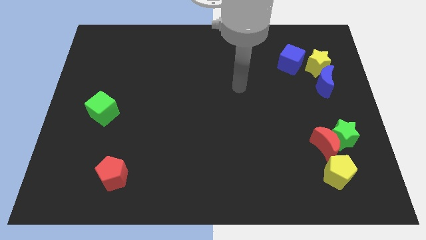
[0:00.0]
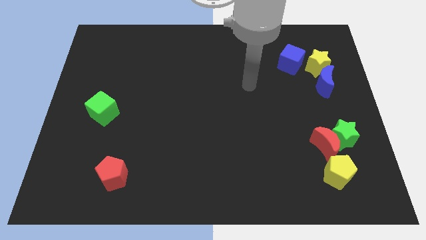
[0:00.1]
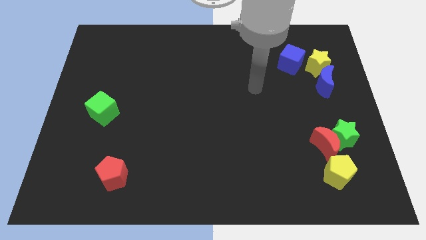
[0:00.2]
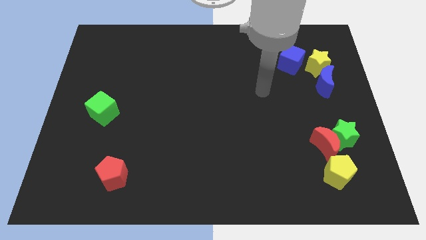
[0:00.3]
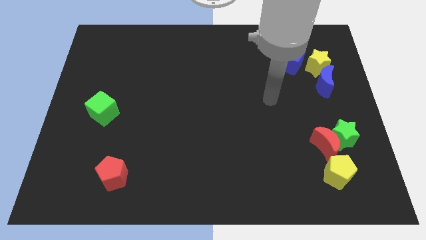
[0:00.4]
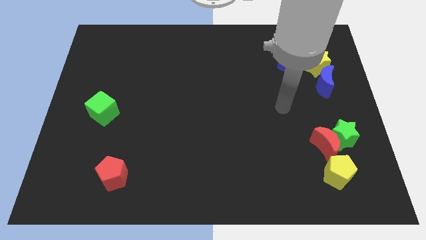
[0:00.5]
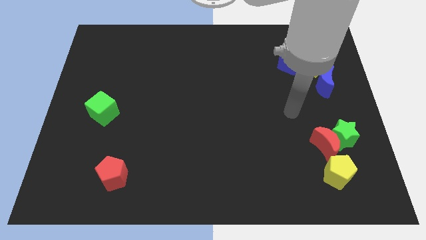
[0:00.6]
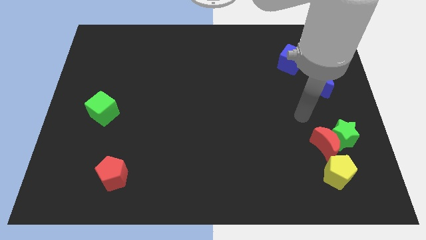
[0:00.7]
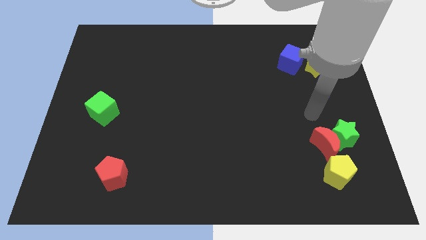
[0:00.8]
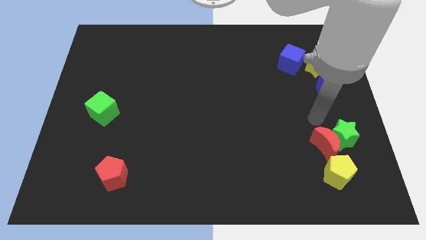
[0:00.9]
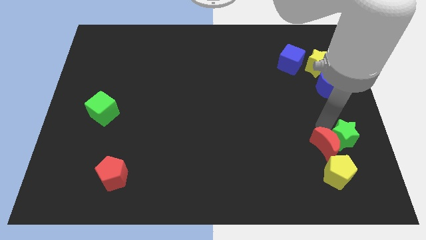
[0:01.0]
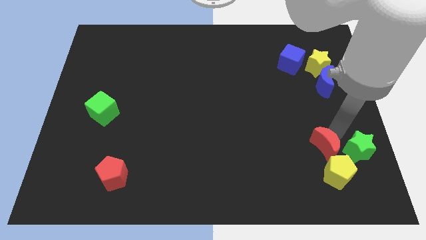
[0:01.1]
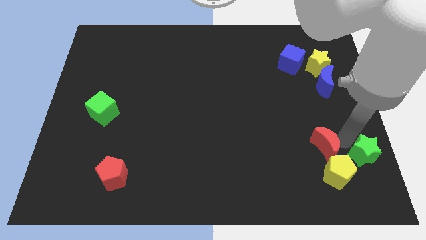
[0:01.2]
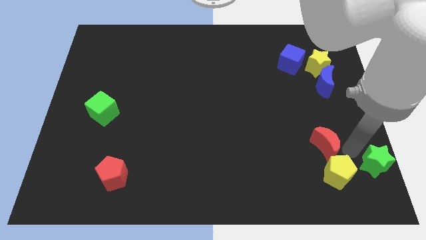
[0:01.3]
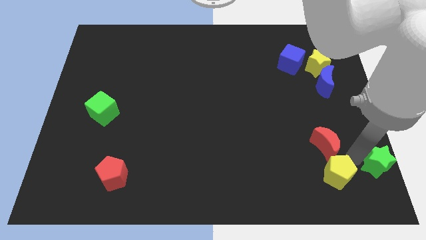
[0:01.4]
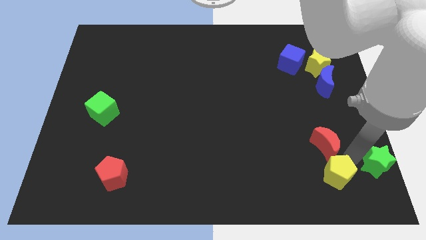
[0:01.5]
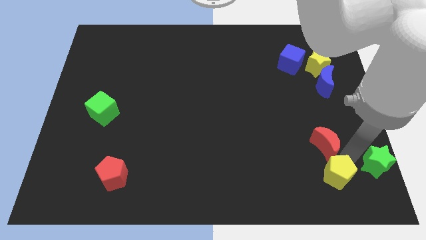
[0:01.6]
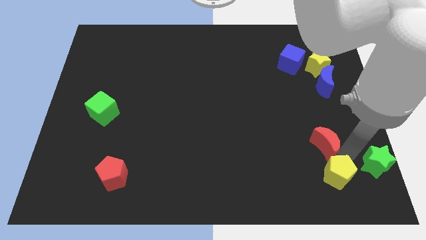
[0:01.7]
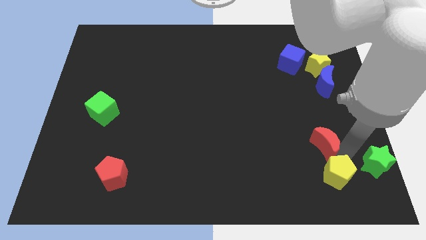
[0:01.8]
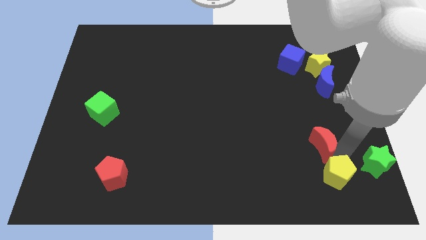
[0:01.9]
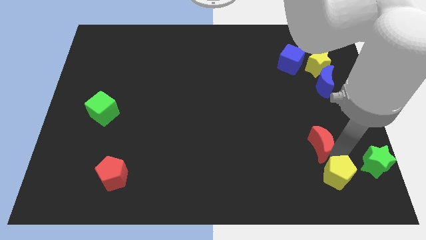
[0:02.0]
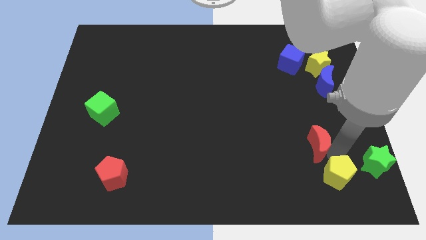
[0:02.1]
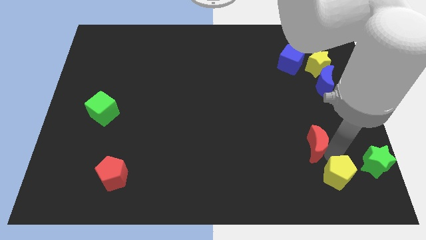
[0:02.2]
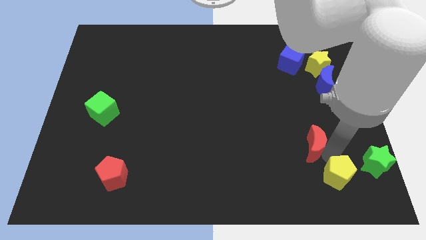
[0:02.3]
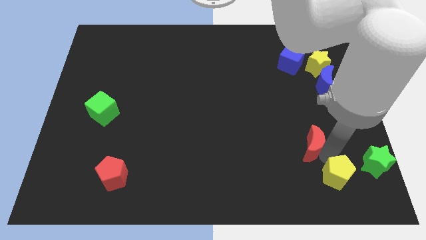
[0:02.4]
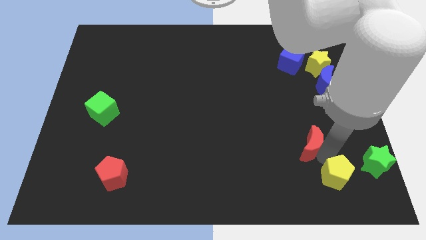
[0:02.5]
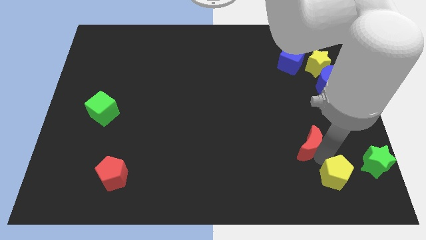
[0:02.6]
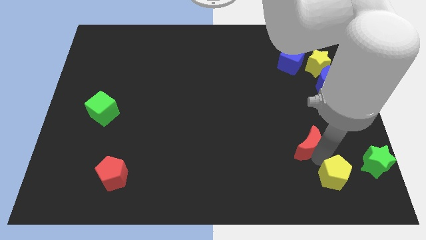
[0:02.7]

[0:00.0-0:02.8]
move the red moon away from the green star and yellow pentagon

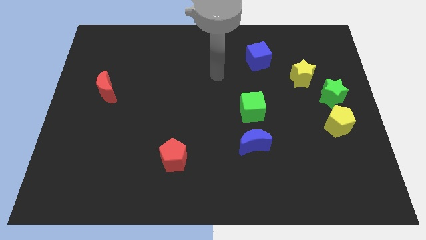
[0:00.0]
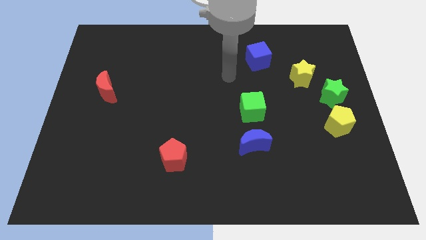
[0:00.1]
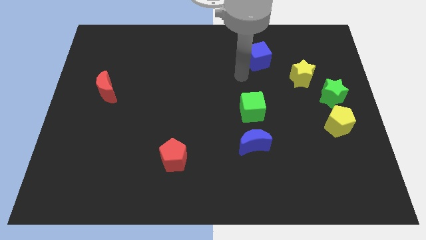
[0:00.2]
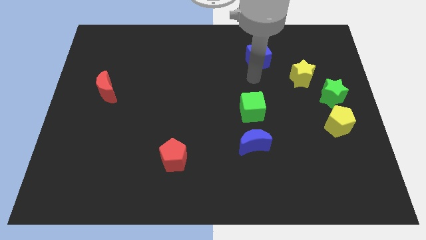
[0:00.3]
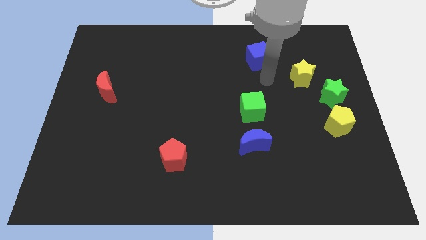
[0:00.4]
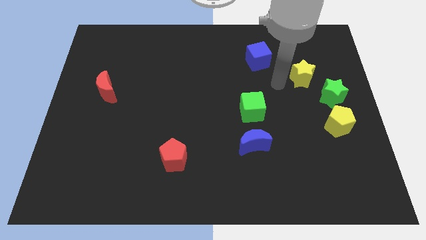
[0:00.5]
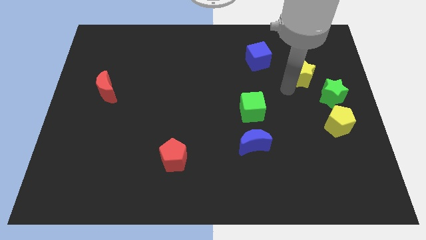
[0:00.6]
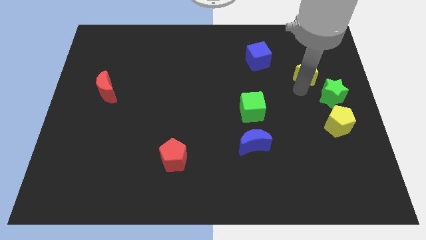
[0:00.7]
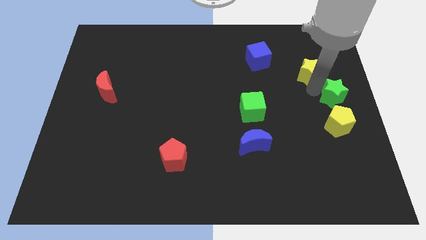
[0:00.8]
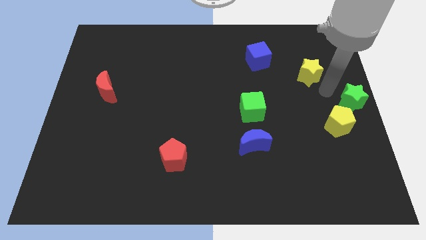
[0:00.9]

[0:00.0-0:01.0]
move the yellow star away from the green star

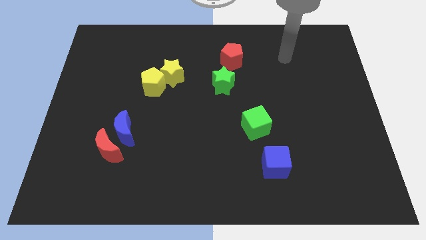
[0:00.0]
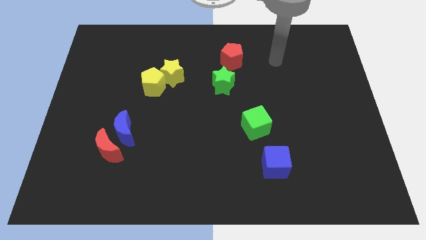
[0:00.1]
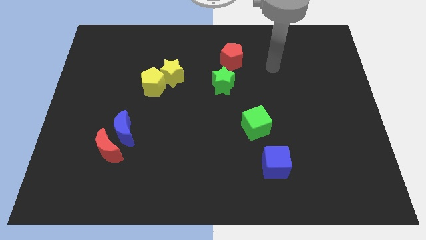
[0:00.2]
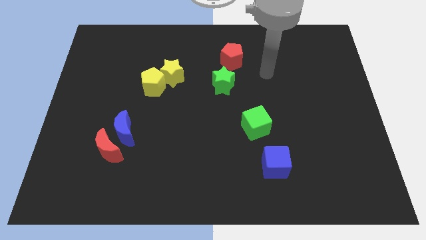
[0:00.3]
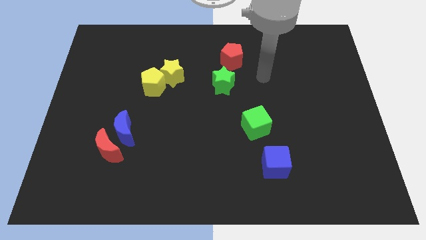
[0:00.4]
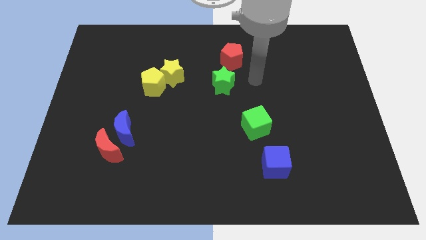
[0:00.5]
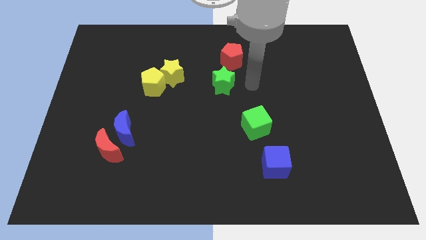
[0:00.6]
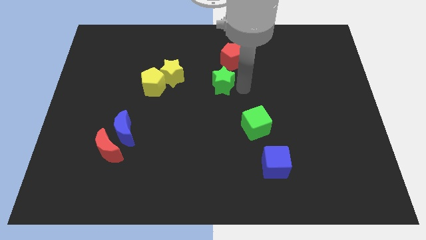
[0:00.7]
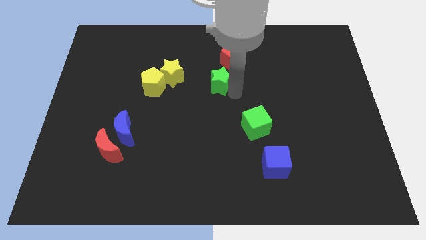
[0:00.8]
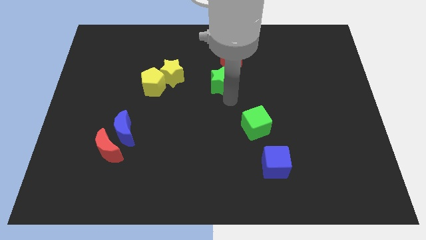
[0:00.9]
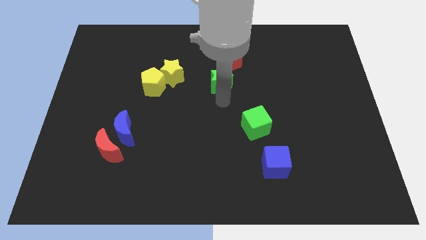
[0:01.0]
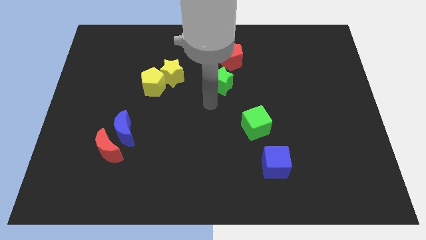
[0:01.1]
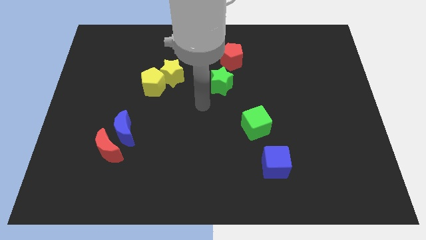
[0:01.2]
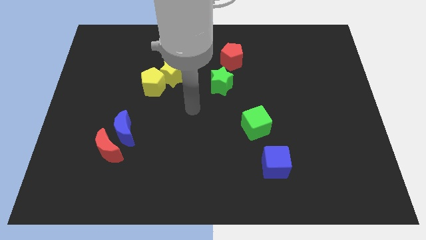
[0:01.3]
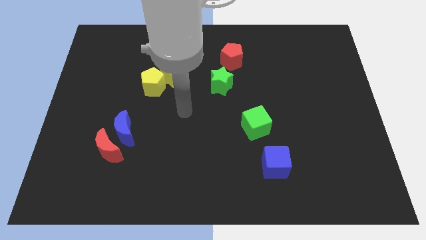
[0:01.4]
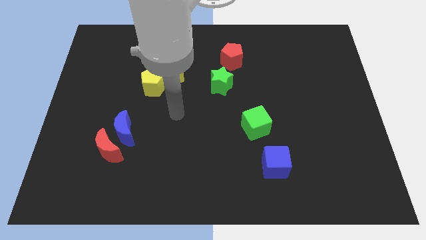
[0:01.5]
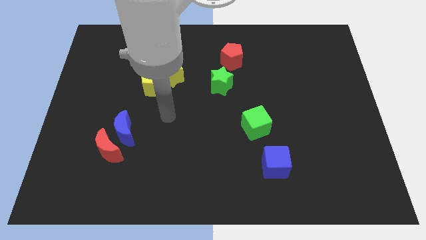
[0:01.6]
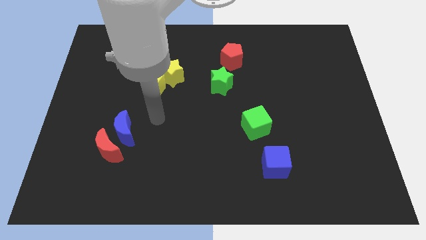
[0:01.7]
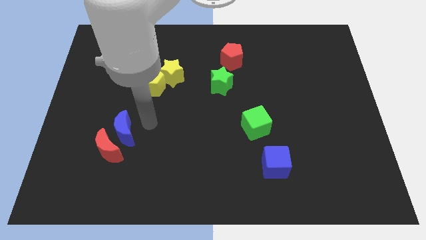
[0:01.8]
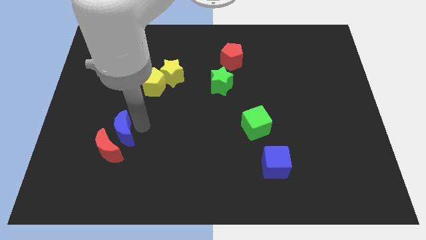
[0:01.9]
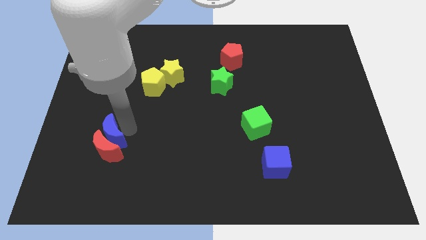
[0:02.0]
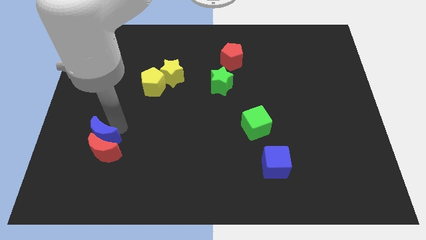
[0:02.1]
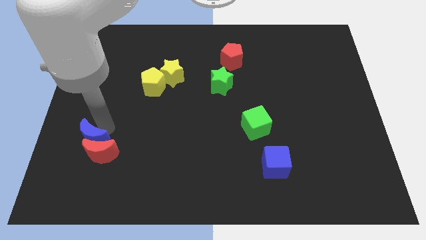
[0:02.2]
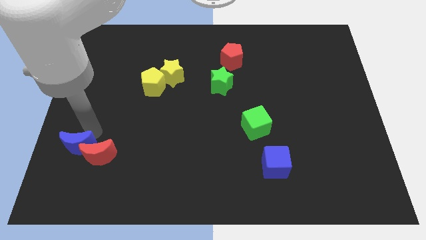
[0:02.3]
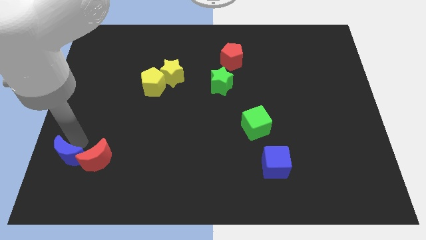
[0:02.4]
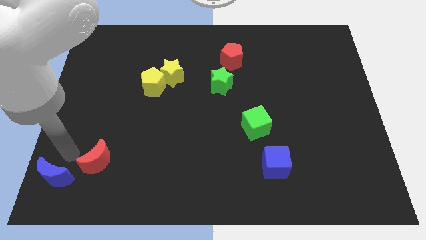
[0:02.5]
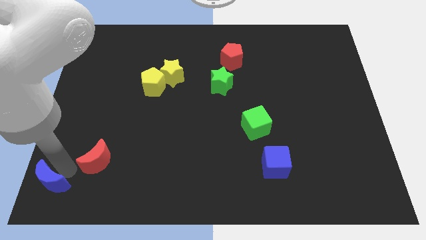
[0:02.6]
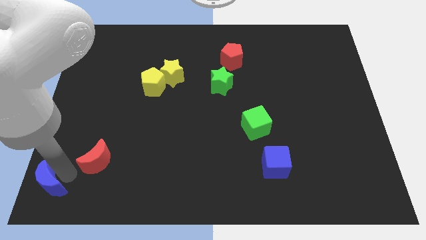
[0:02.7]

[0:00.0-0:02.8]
separate the red moon from the blue moon

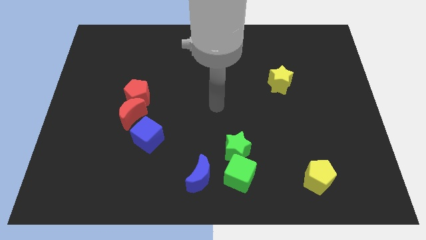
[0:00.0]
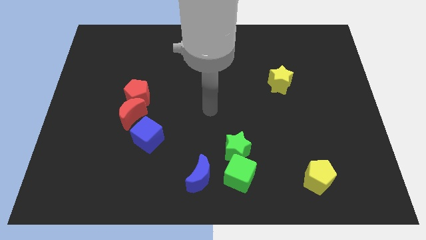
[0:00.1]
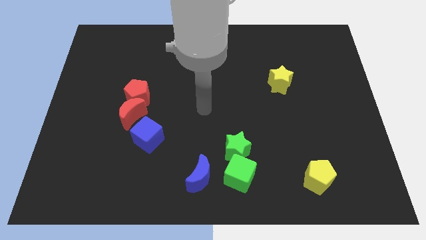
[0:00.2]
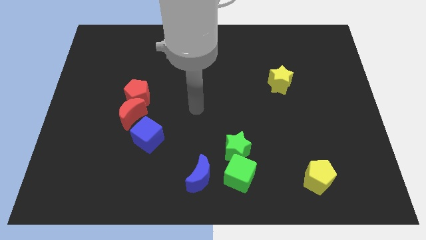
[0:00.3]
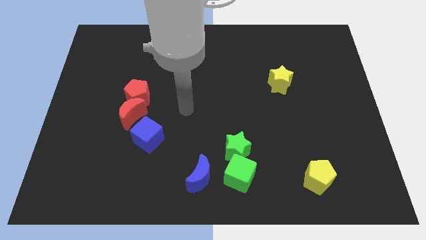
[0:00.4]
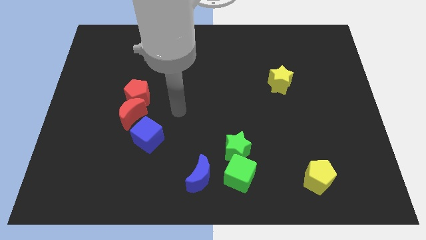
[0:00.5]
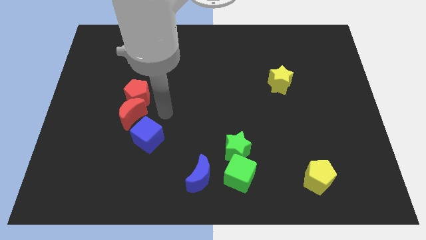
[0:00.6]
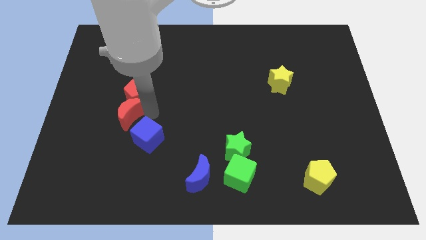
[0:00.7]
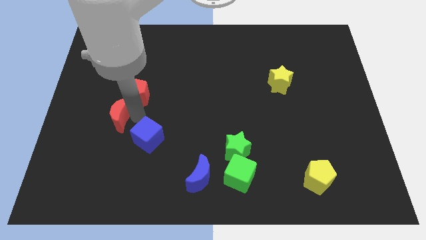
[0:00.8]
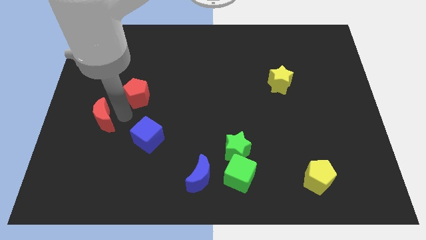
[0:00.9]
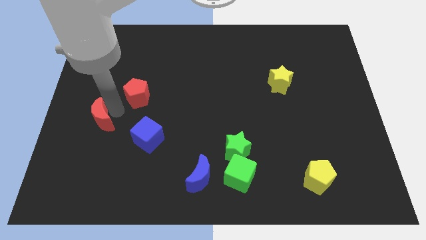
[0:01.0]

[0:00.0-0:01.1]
separate the red pentagon from the red moon

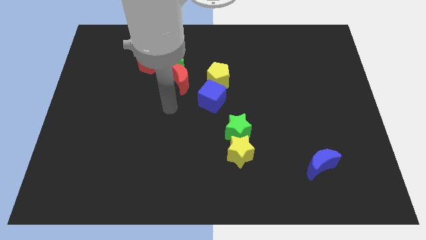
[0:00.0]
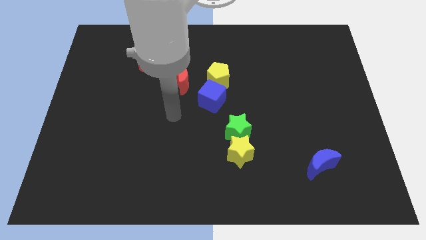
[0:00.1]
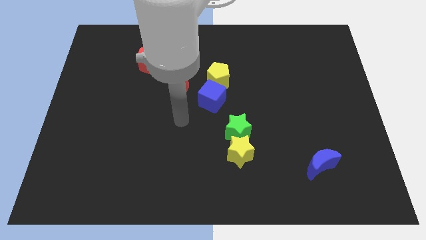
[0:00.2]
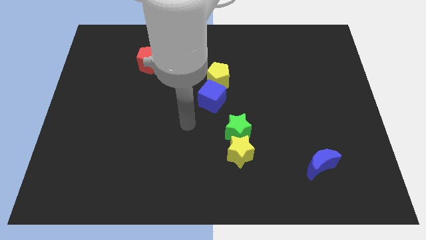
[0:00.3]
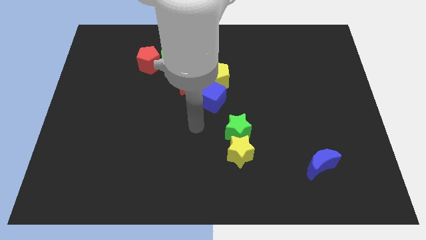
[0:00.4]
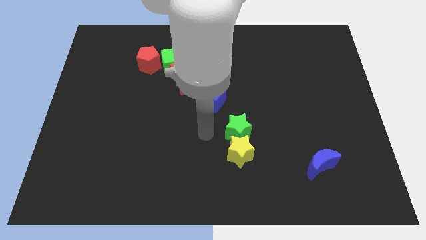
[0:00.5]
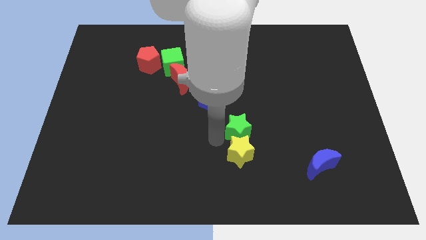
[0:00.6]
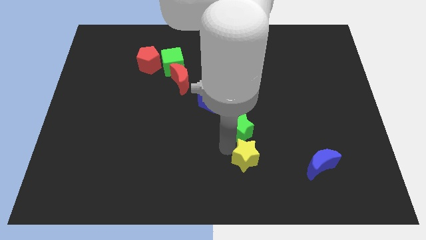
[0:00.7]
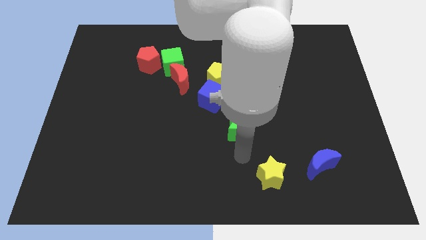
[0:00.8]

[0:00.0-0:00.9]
separate the green star from the yellow star

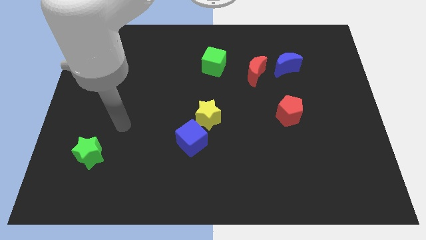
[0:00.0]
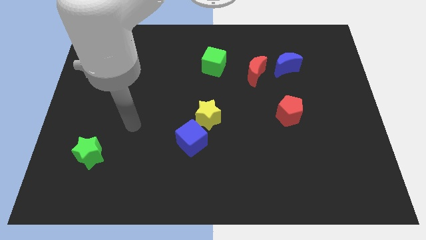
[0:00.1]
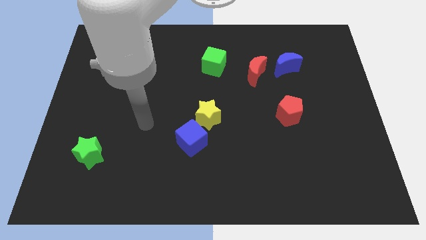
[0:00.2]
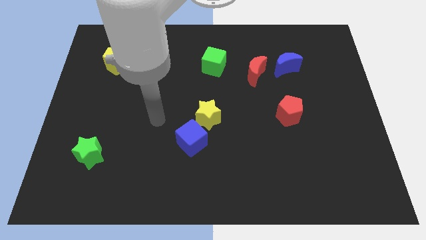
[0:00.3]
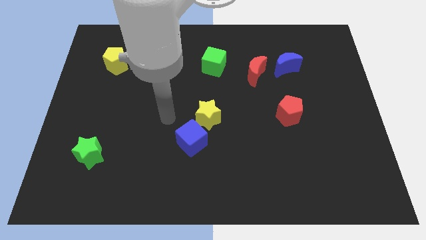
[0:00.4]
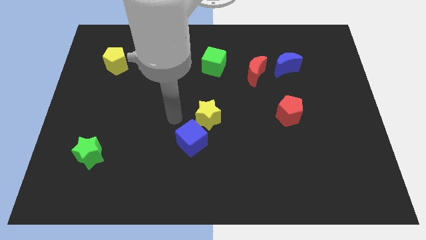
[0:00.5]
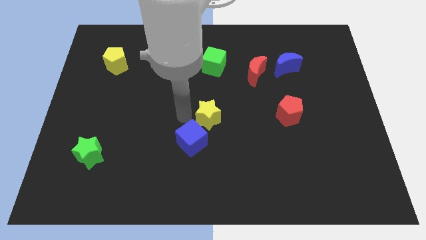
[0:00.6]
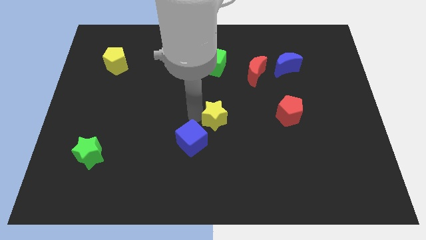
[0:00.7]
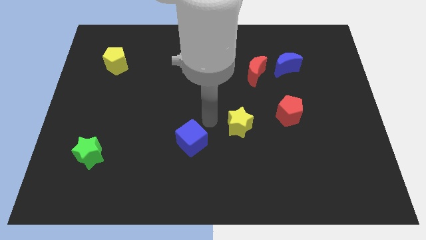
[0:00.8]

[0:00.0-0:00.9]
pull the blue cube apart from the yellow star
